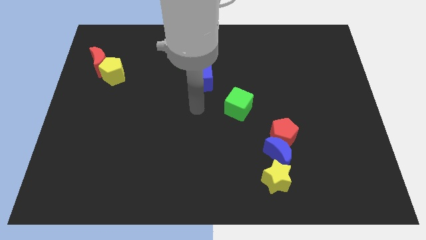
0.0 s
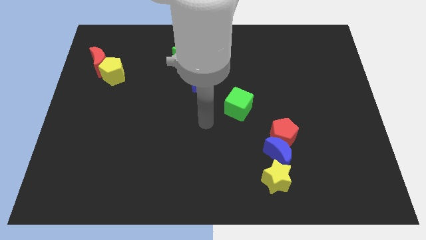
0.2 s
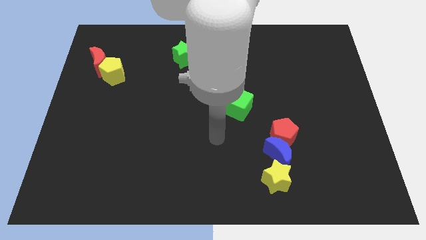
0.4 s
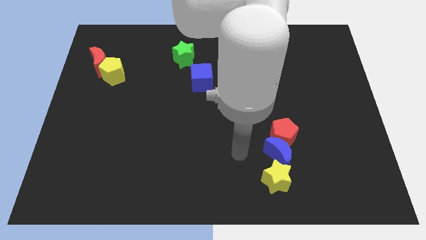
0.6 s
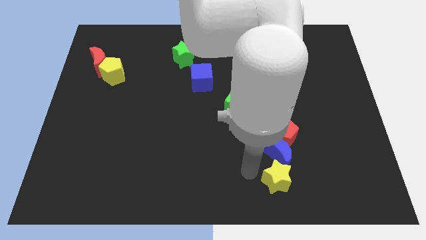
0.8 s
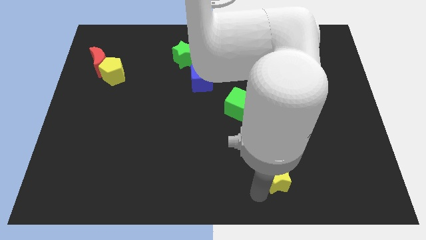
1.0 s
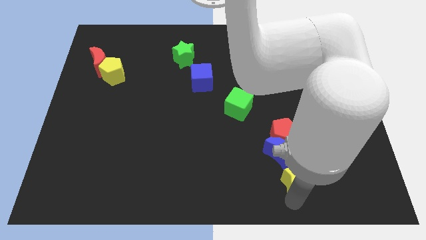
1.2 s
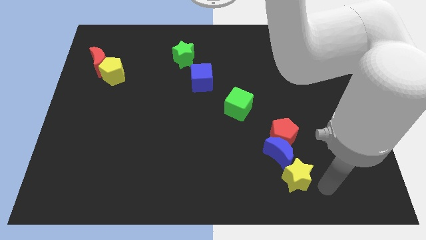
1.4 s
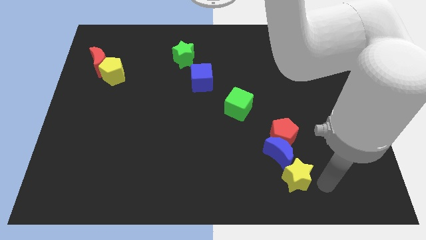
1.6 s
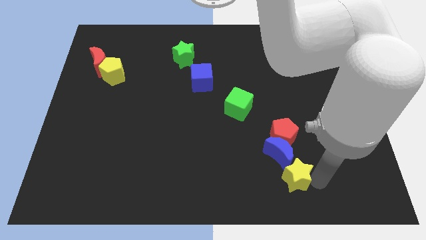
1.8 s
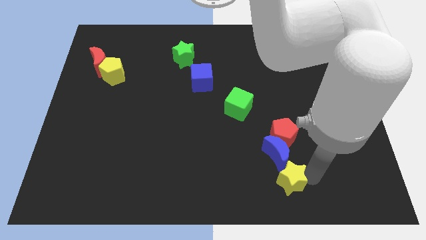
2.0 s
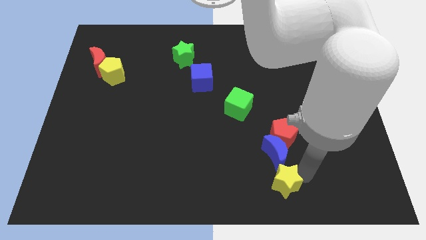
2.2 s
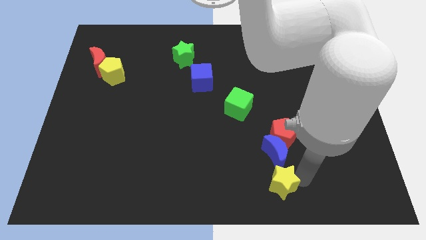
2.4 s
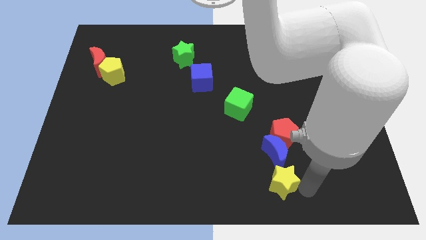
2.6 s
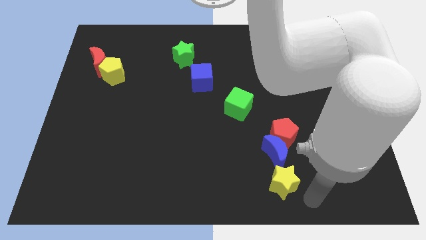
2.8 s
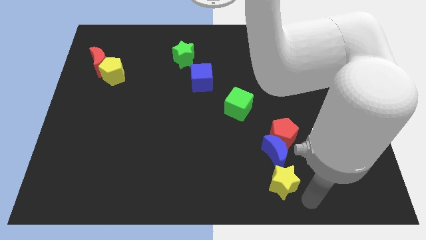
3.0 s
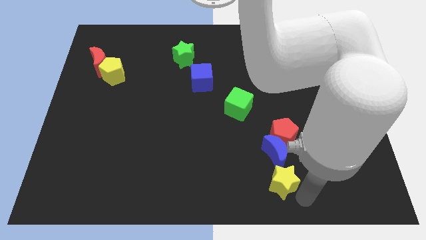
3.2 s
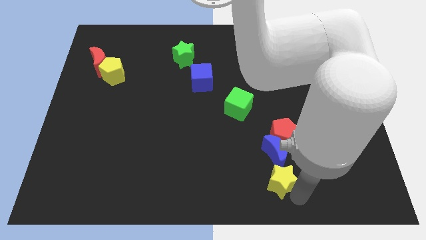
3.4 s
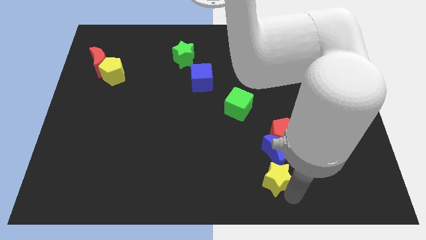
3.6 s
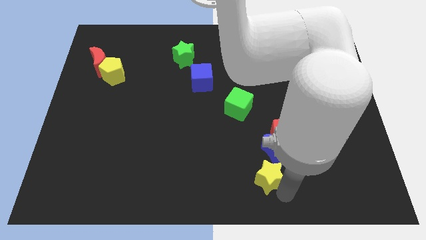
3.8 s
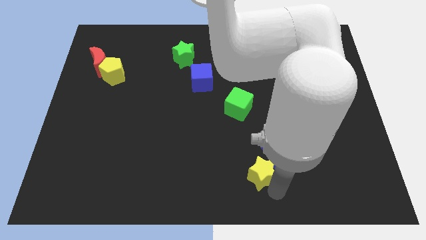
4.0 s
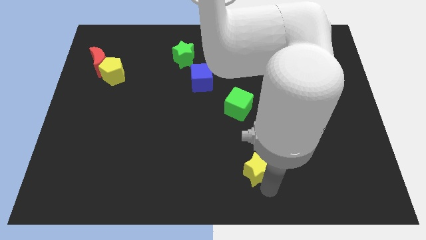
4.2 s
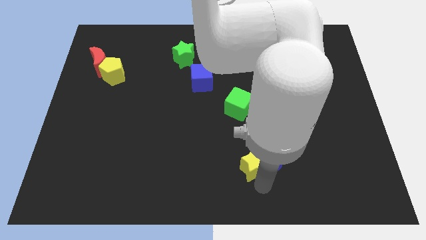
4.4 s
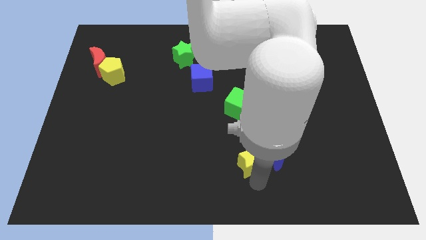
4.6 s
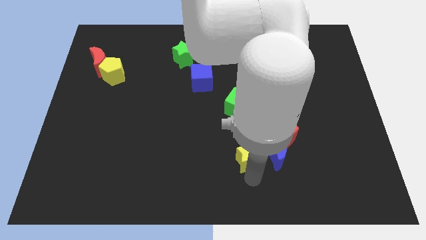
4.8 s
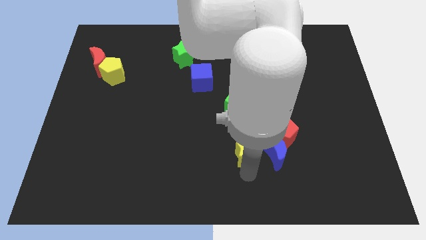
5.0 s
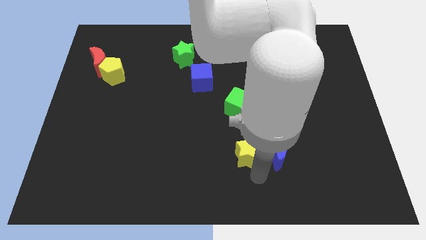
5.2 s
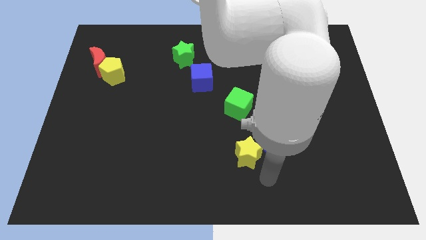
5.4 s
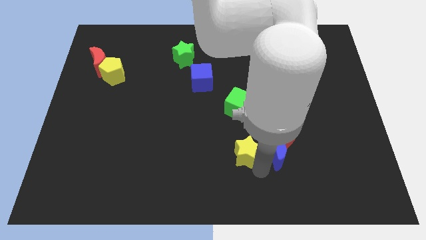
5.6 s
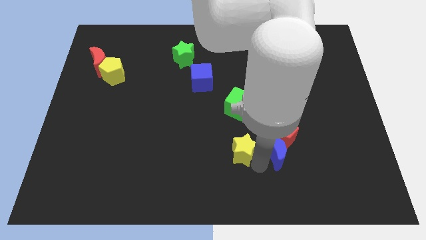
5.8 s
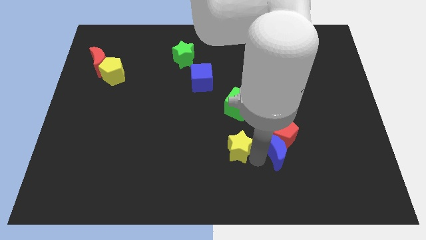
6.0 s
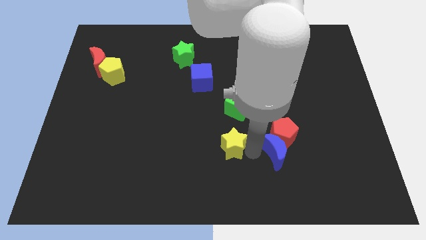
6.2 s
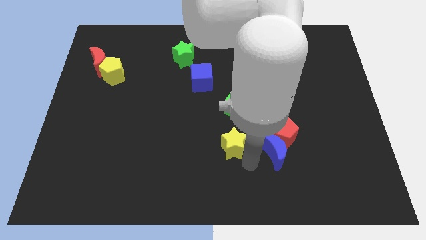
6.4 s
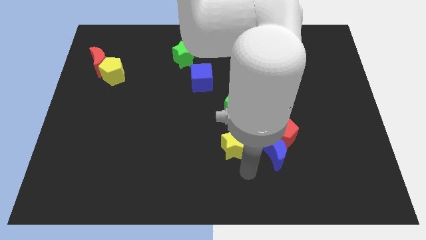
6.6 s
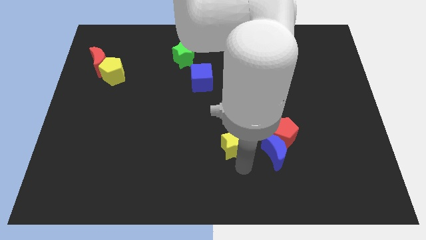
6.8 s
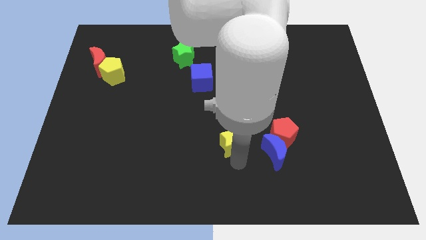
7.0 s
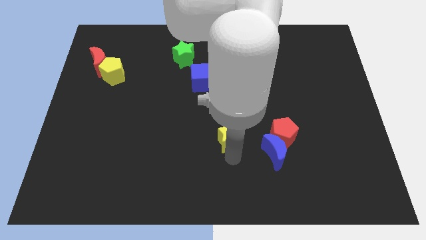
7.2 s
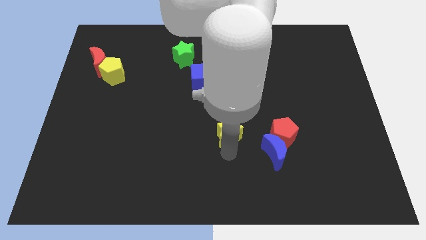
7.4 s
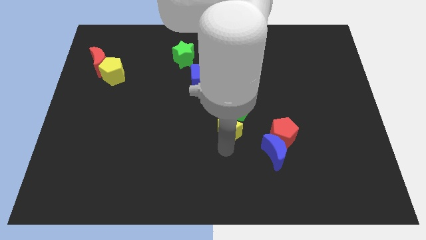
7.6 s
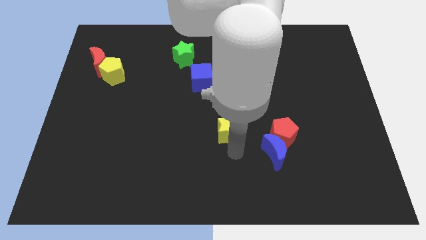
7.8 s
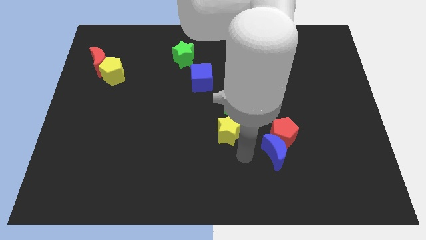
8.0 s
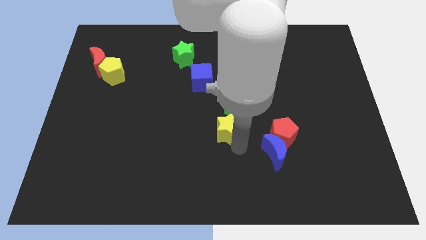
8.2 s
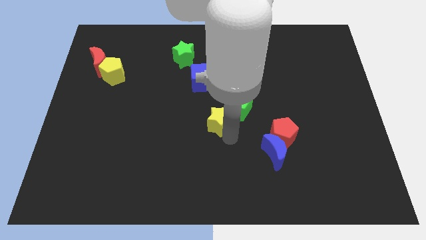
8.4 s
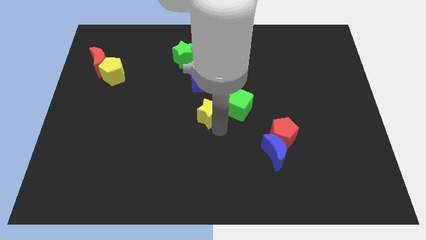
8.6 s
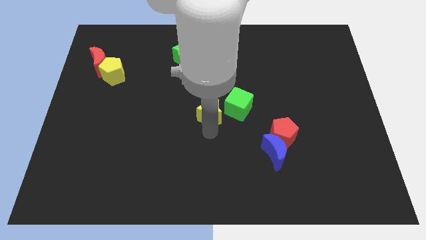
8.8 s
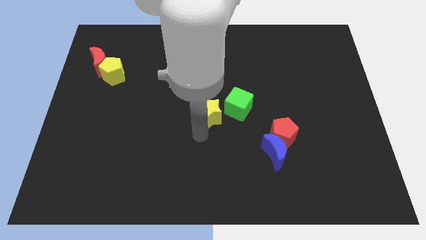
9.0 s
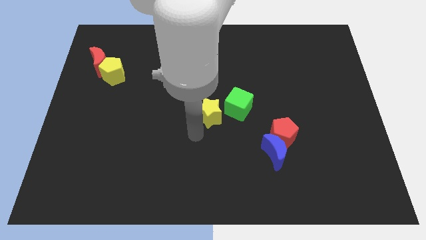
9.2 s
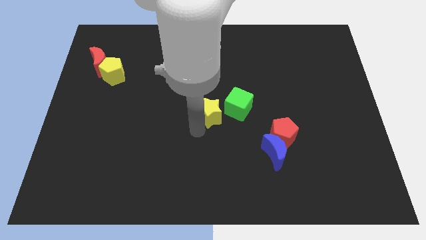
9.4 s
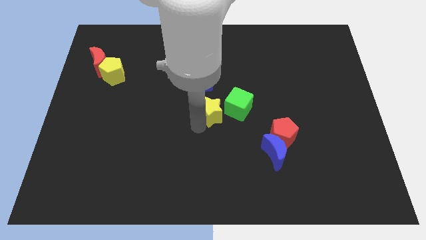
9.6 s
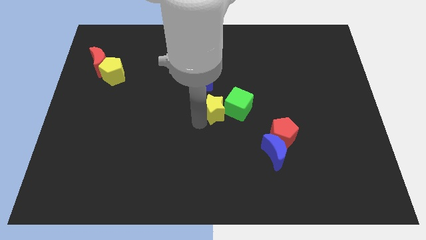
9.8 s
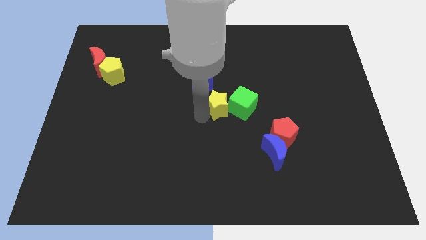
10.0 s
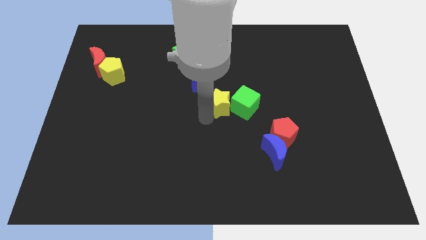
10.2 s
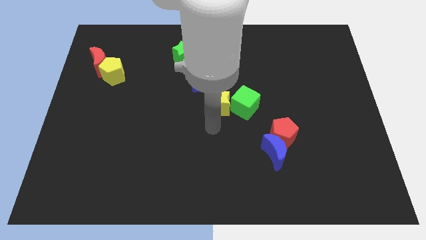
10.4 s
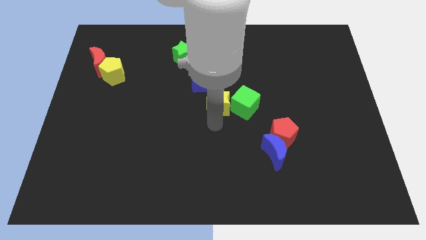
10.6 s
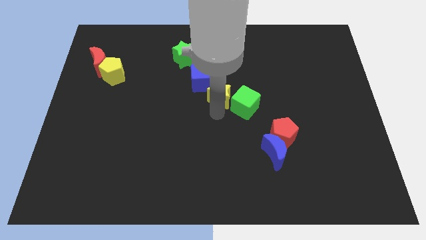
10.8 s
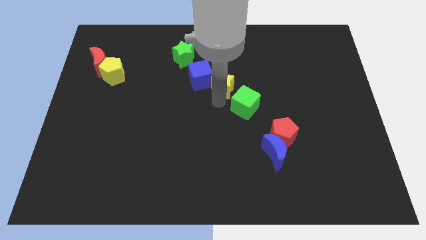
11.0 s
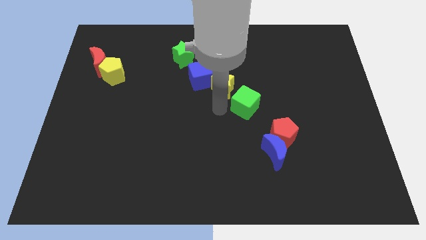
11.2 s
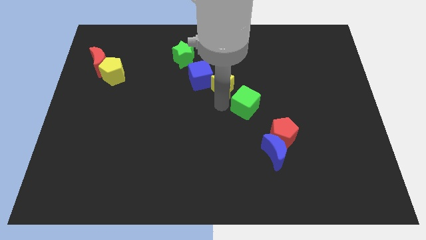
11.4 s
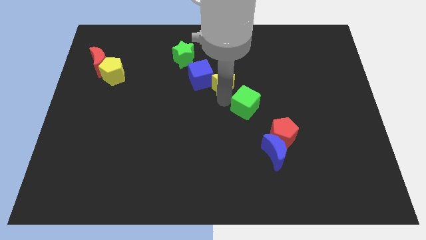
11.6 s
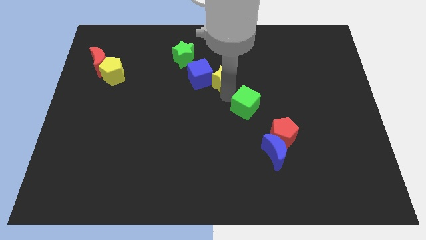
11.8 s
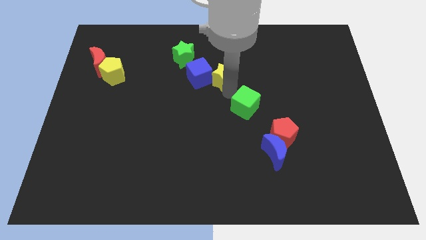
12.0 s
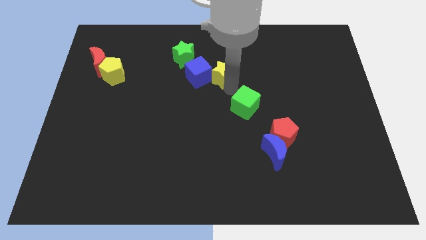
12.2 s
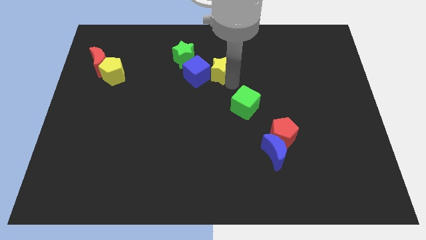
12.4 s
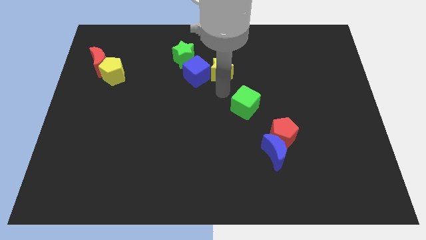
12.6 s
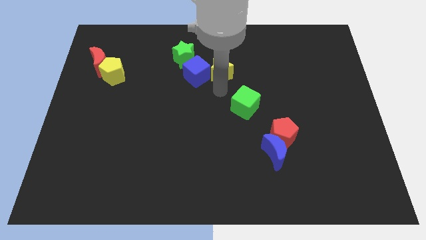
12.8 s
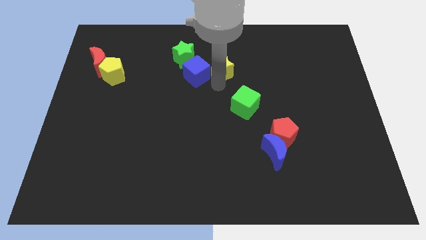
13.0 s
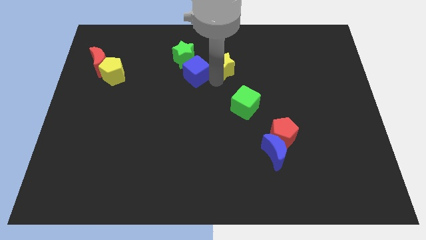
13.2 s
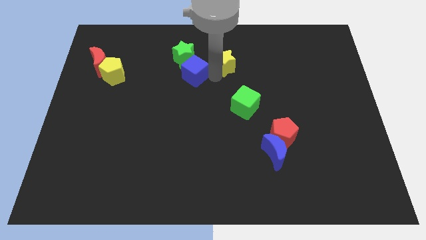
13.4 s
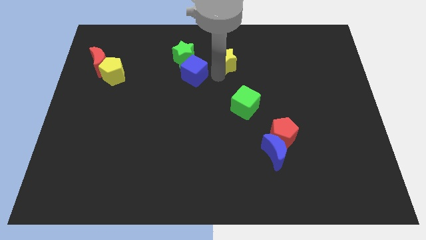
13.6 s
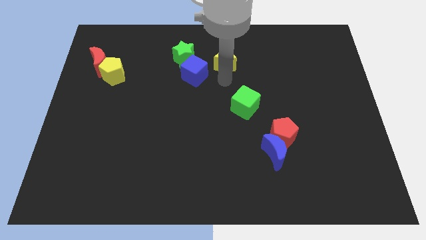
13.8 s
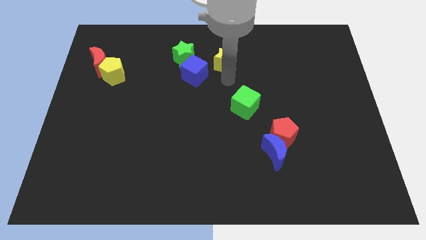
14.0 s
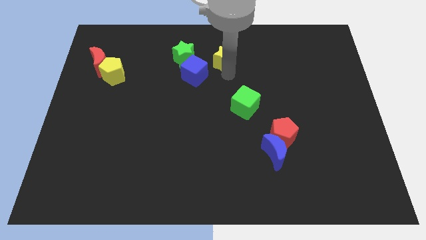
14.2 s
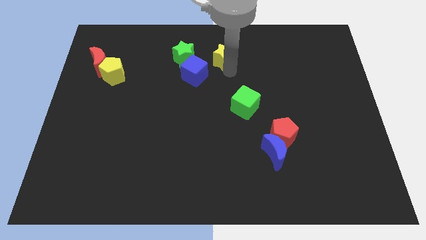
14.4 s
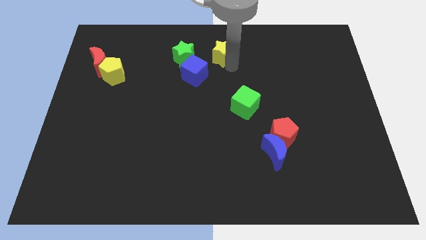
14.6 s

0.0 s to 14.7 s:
push the yellow star to the towards your base
